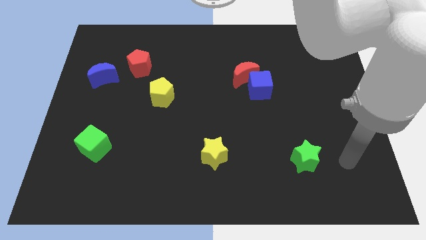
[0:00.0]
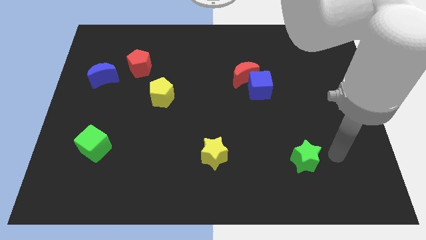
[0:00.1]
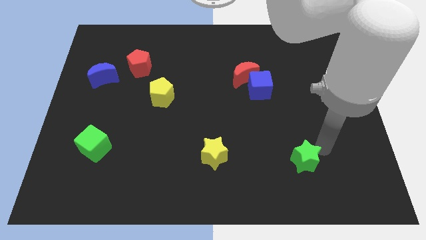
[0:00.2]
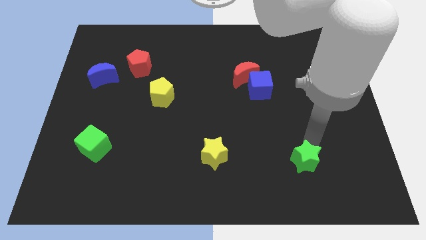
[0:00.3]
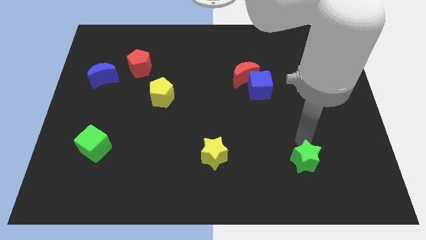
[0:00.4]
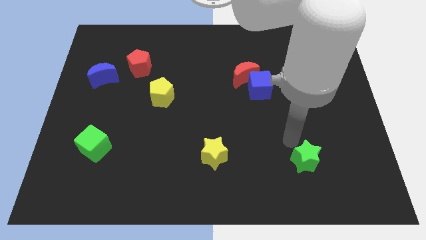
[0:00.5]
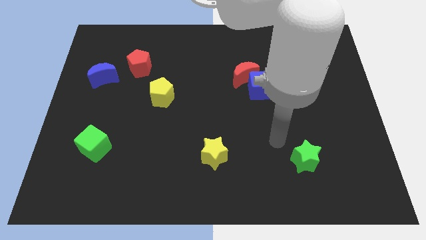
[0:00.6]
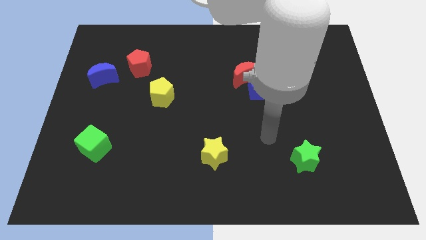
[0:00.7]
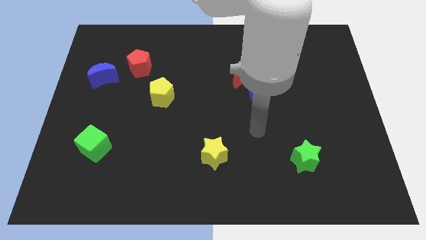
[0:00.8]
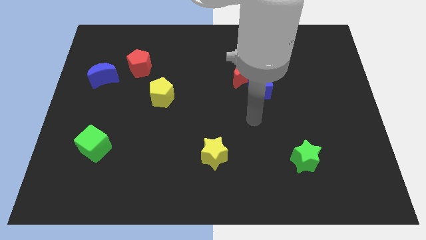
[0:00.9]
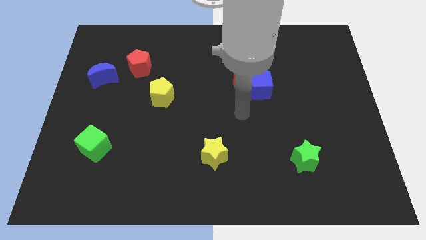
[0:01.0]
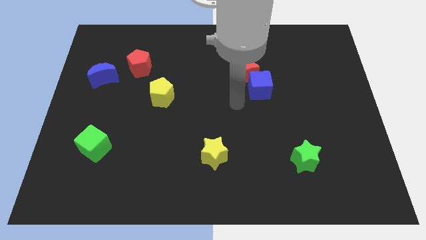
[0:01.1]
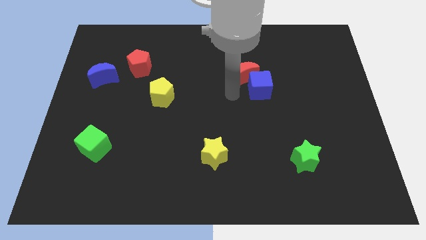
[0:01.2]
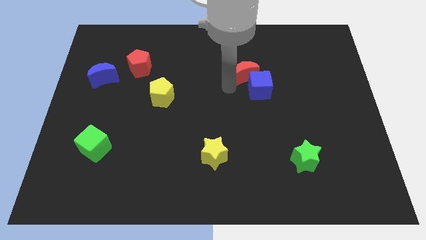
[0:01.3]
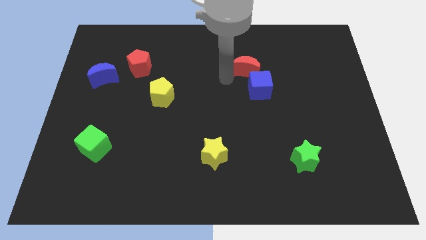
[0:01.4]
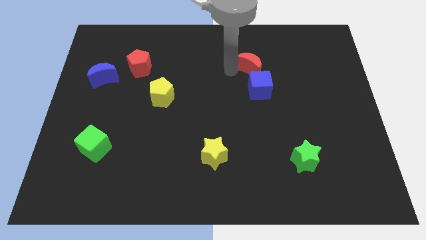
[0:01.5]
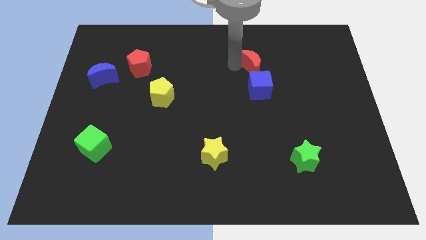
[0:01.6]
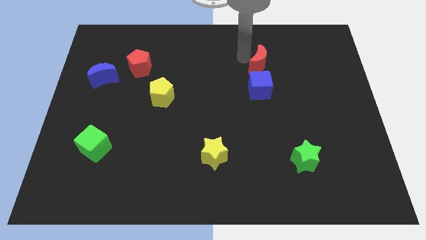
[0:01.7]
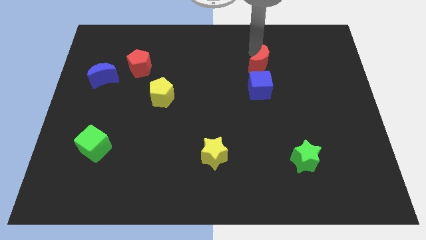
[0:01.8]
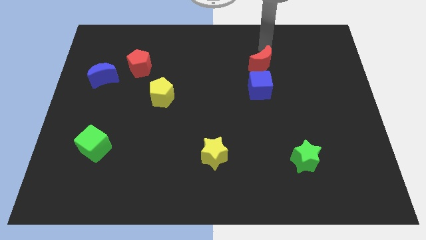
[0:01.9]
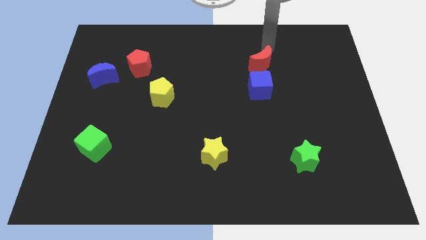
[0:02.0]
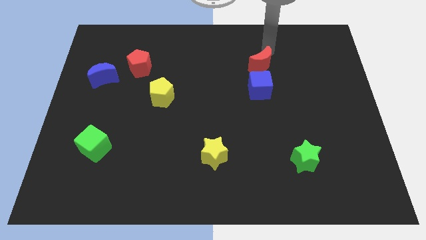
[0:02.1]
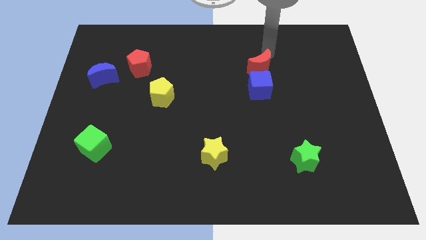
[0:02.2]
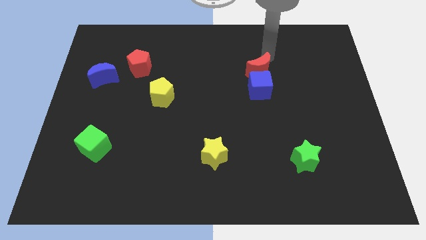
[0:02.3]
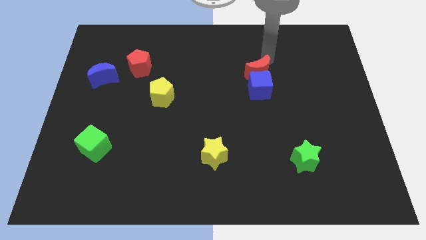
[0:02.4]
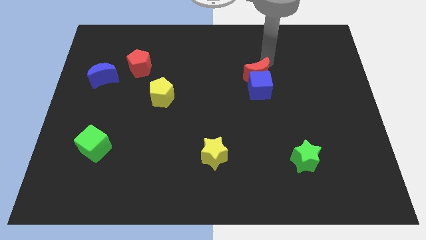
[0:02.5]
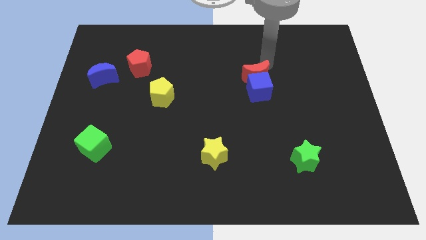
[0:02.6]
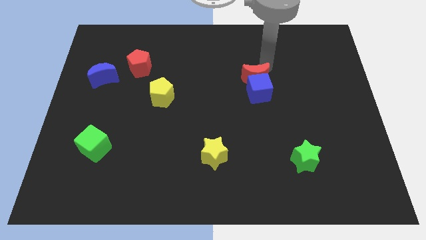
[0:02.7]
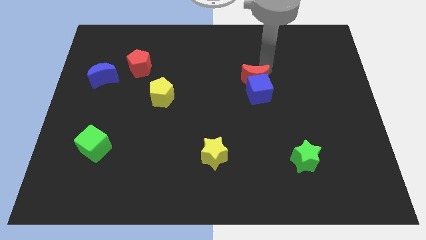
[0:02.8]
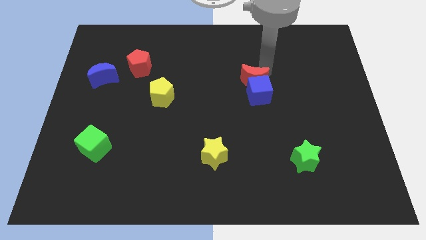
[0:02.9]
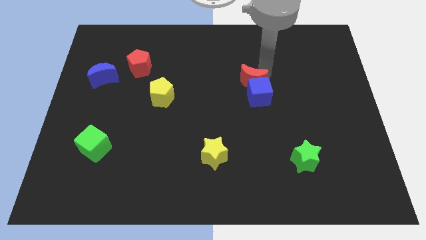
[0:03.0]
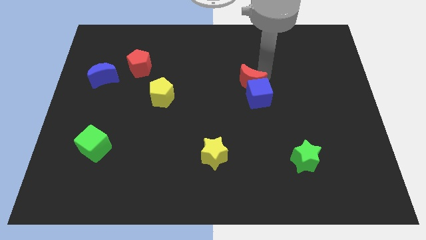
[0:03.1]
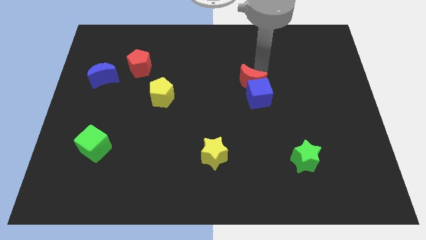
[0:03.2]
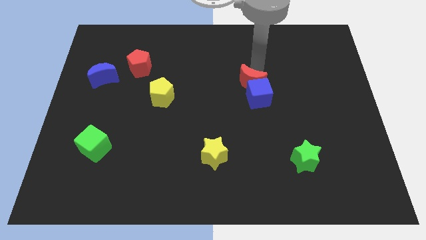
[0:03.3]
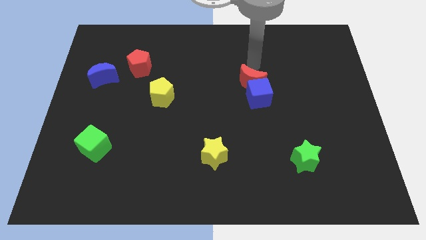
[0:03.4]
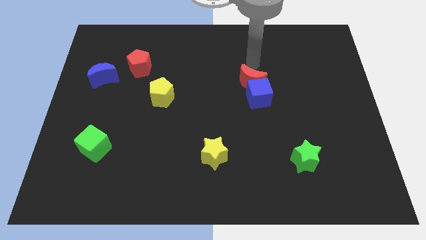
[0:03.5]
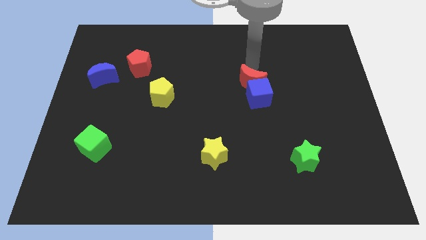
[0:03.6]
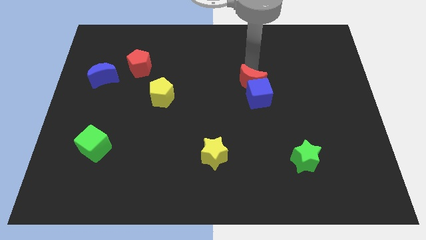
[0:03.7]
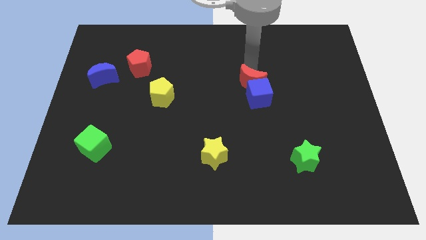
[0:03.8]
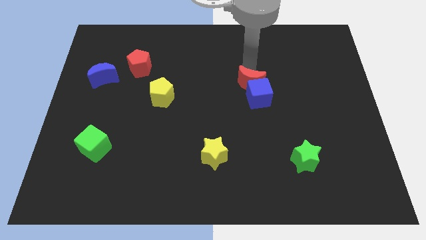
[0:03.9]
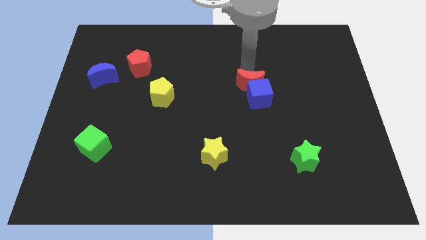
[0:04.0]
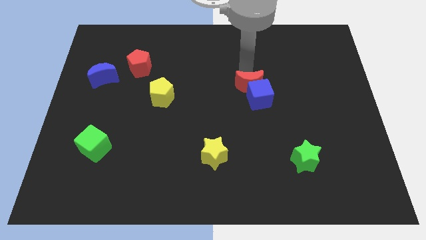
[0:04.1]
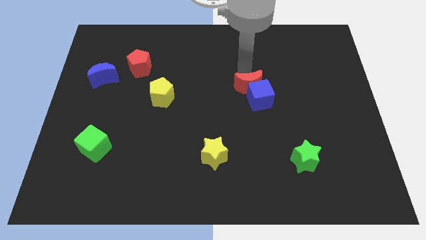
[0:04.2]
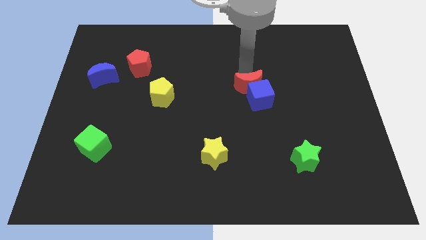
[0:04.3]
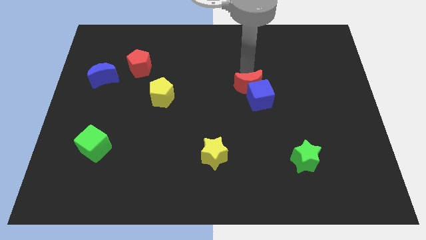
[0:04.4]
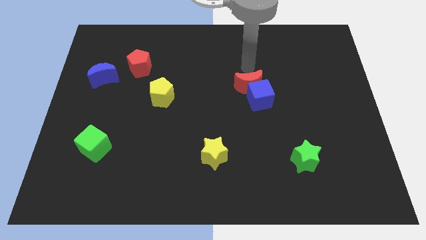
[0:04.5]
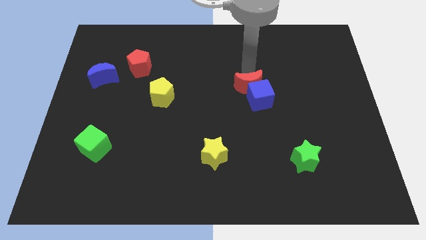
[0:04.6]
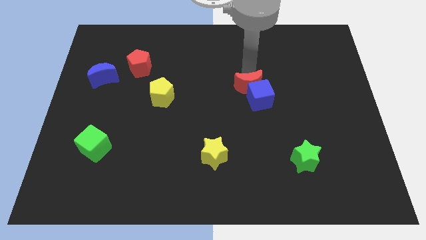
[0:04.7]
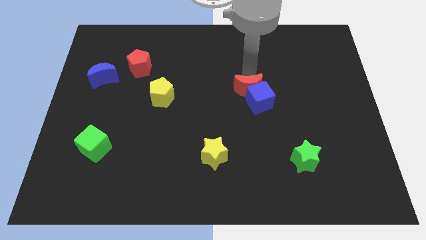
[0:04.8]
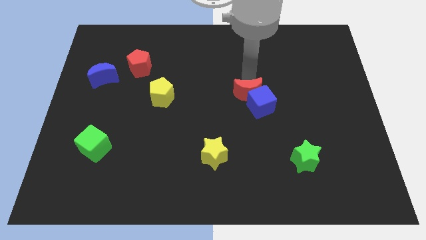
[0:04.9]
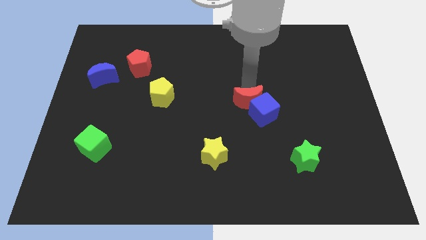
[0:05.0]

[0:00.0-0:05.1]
slightly slide the red moon downwards

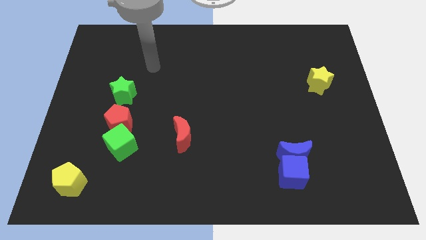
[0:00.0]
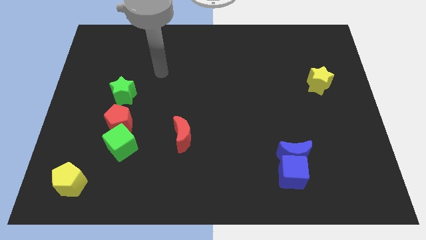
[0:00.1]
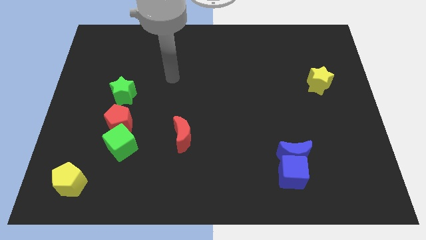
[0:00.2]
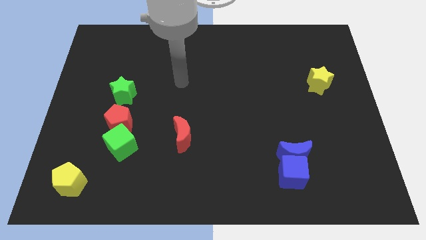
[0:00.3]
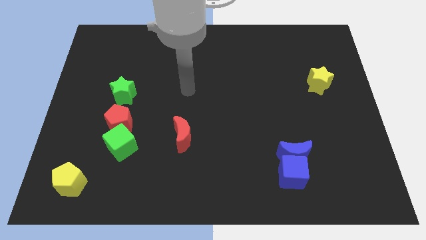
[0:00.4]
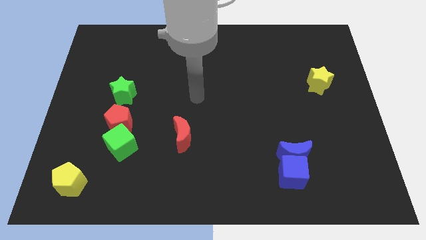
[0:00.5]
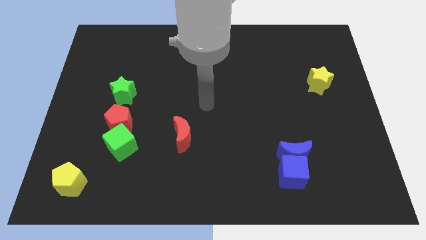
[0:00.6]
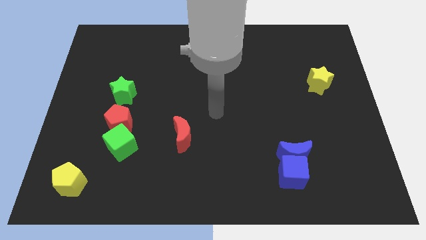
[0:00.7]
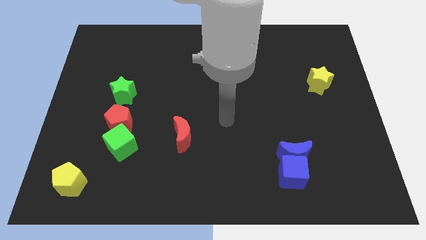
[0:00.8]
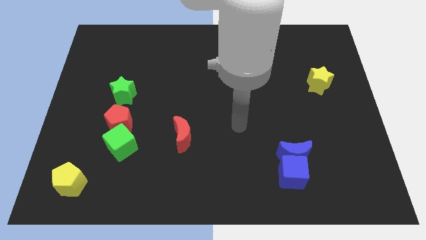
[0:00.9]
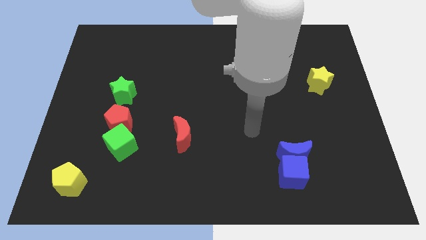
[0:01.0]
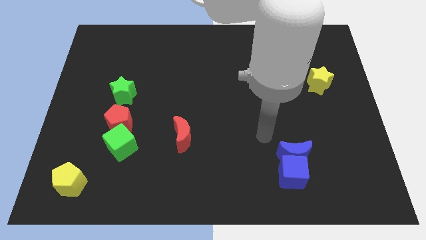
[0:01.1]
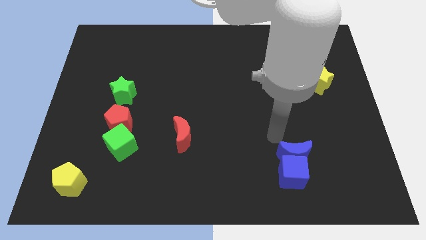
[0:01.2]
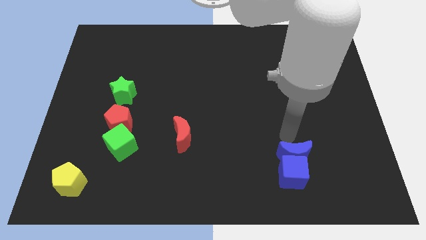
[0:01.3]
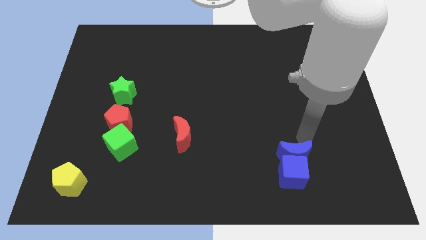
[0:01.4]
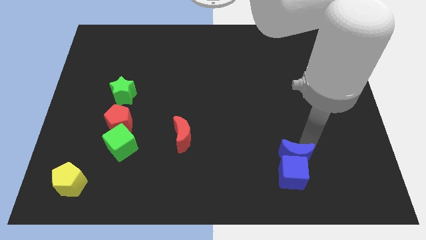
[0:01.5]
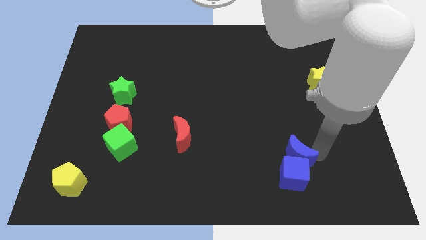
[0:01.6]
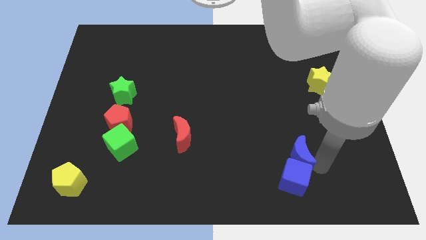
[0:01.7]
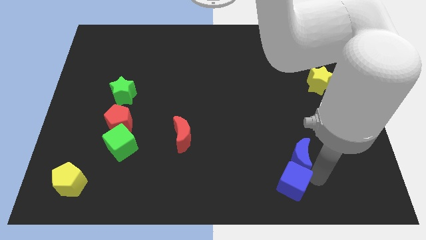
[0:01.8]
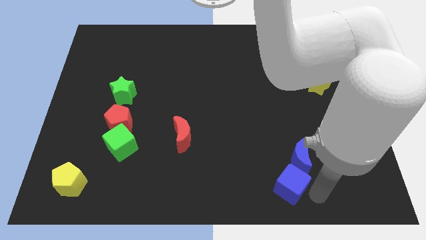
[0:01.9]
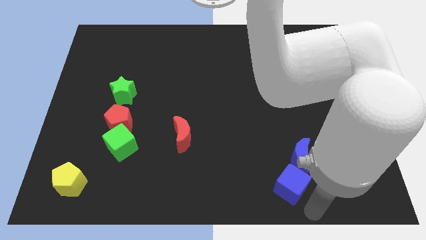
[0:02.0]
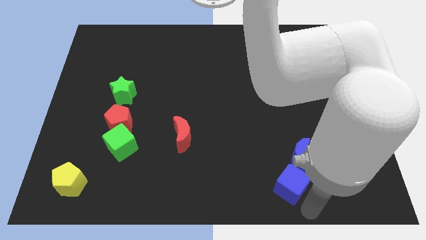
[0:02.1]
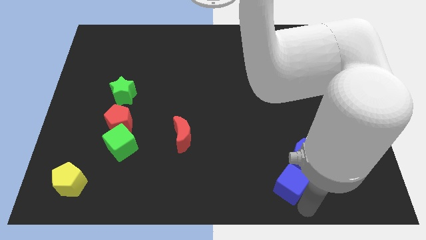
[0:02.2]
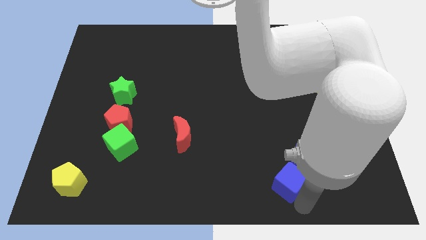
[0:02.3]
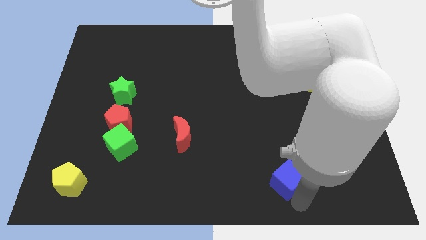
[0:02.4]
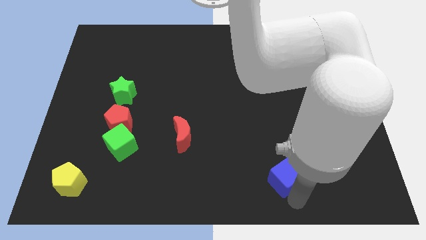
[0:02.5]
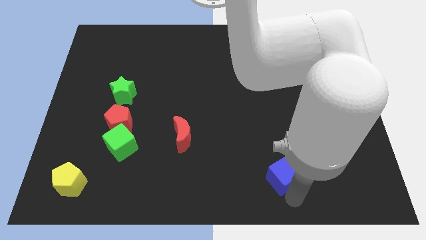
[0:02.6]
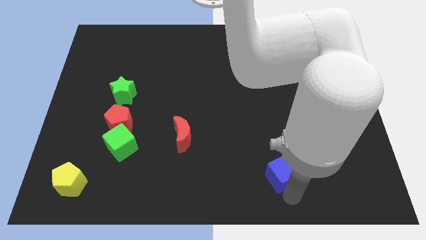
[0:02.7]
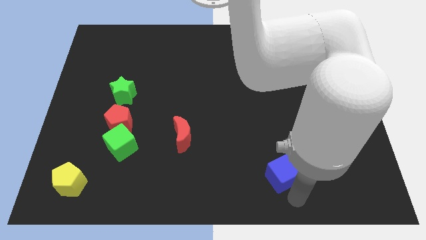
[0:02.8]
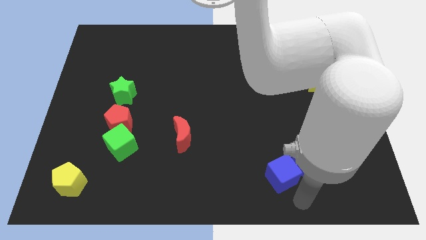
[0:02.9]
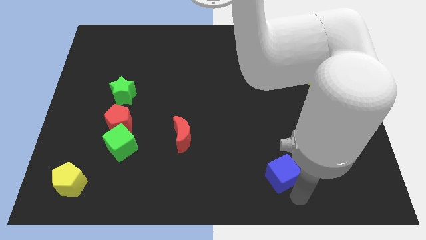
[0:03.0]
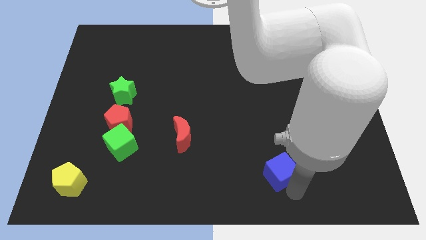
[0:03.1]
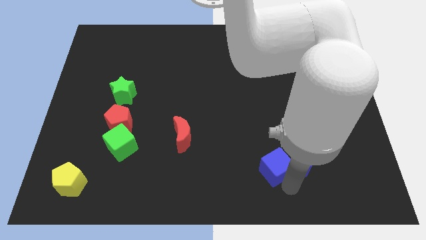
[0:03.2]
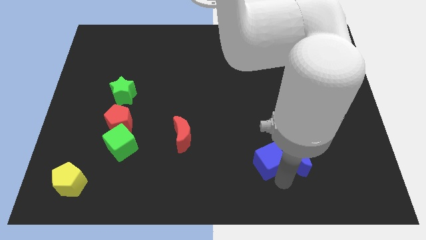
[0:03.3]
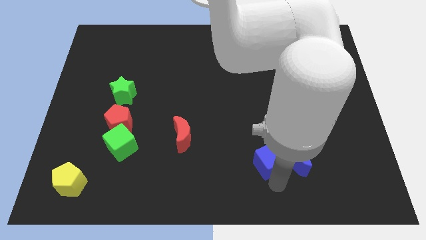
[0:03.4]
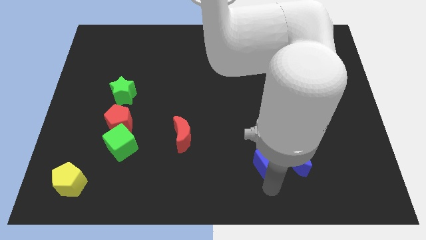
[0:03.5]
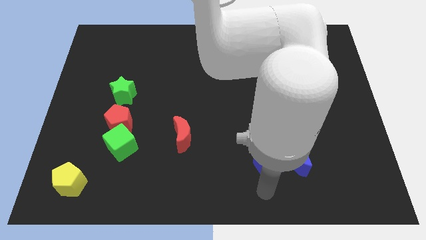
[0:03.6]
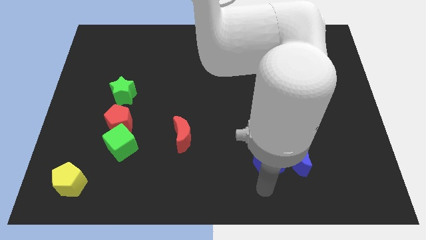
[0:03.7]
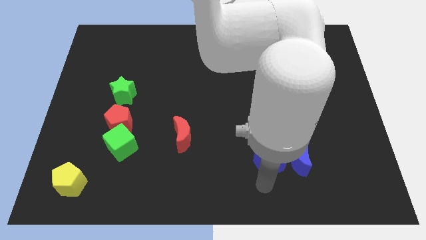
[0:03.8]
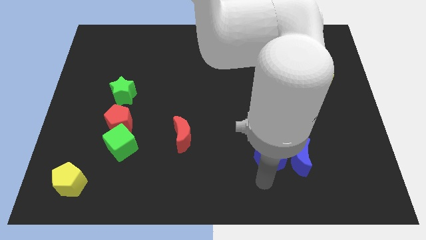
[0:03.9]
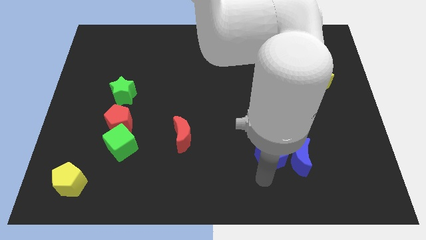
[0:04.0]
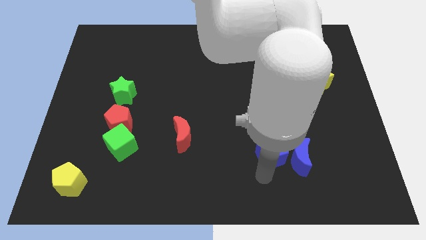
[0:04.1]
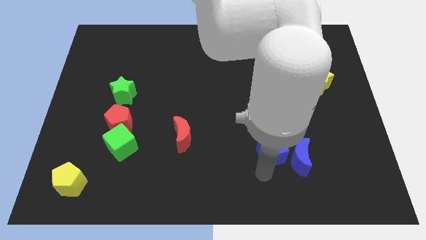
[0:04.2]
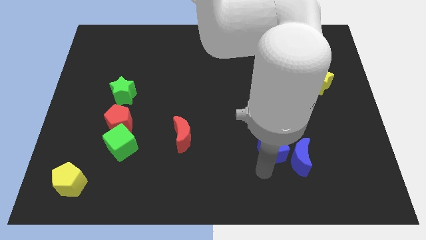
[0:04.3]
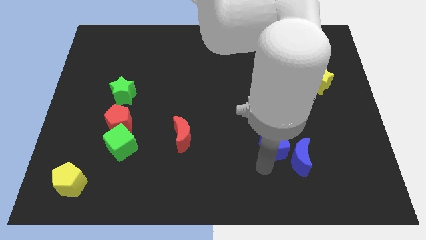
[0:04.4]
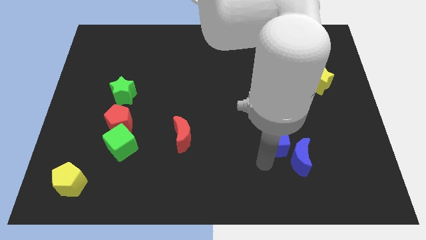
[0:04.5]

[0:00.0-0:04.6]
slide the blue cube up somewhat
